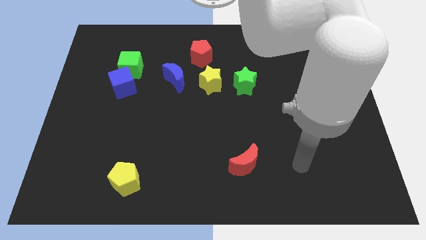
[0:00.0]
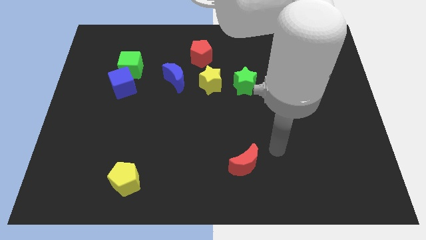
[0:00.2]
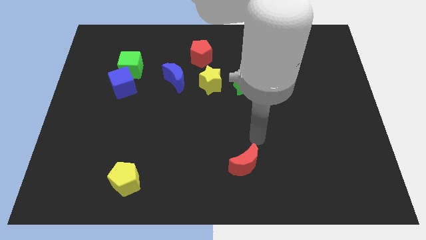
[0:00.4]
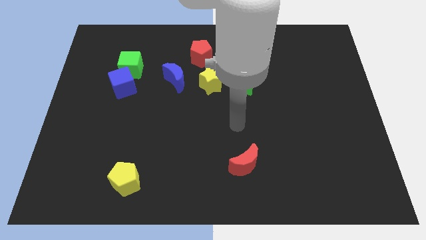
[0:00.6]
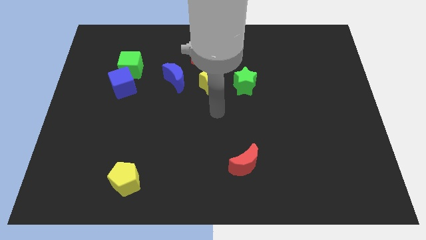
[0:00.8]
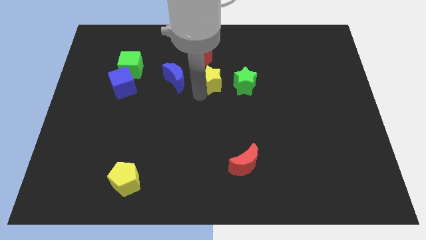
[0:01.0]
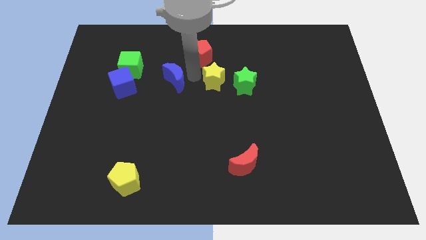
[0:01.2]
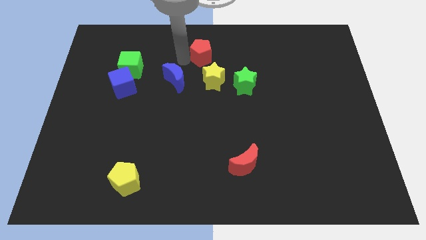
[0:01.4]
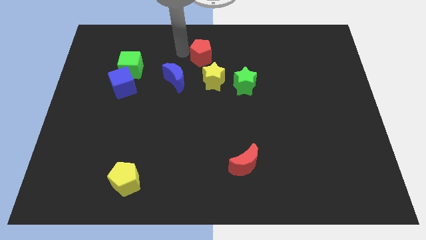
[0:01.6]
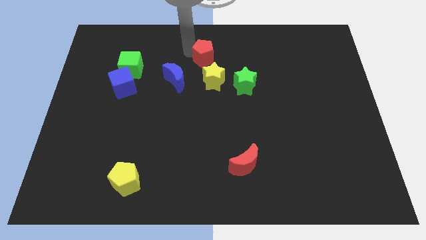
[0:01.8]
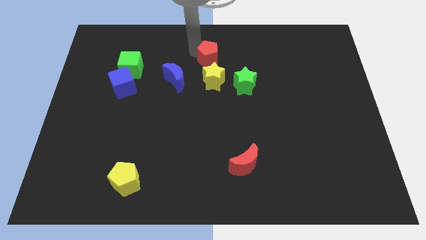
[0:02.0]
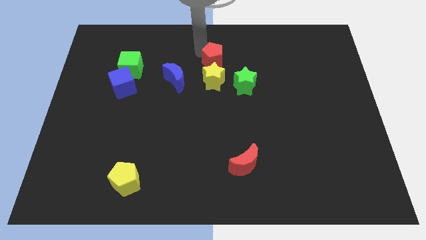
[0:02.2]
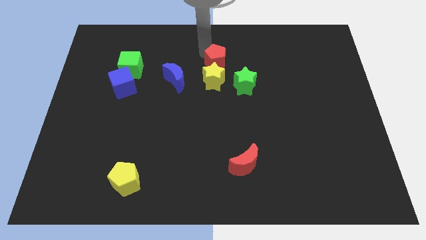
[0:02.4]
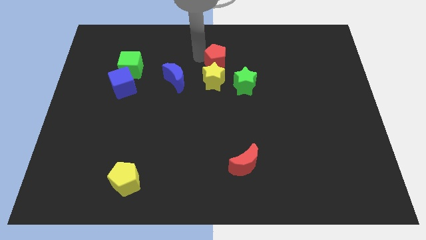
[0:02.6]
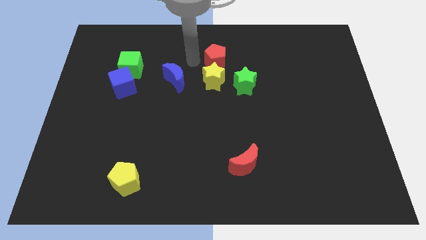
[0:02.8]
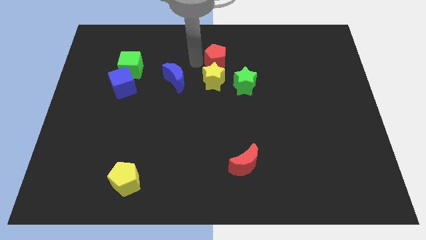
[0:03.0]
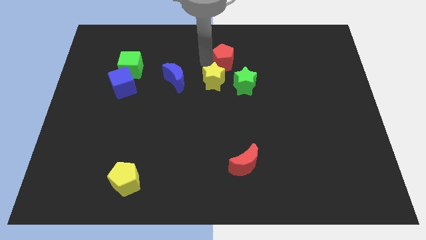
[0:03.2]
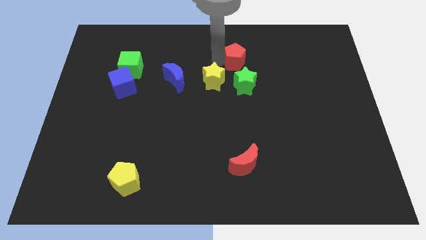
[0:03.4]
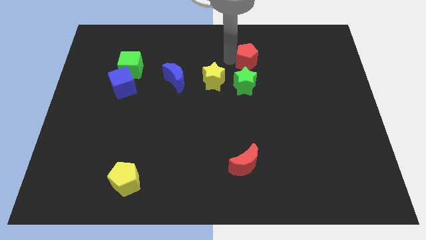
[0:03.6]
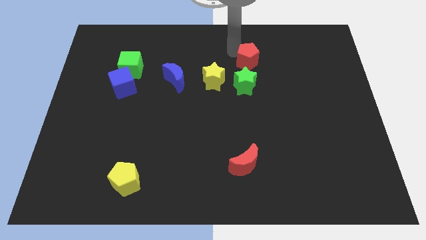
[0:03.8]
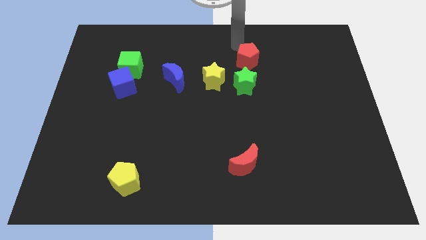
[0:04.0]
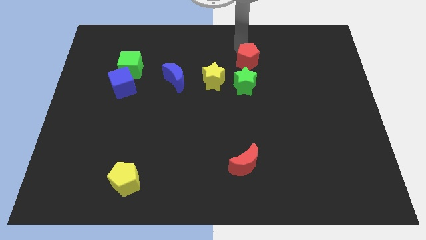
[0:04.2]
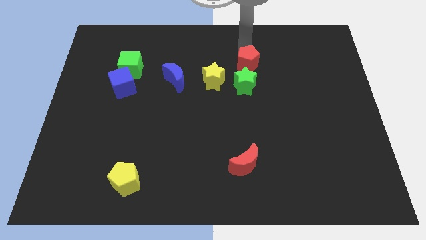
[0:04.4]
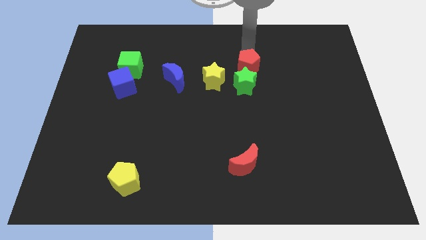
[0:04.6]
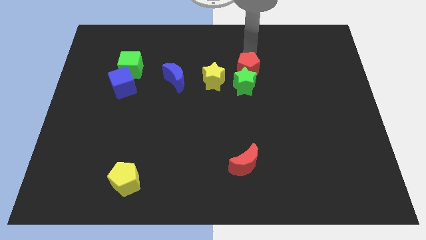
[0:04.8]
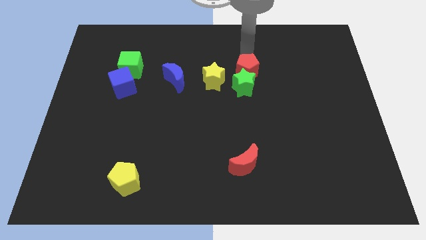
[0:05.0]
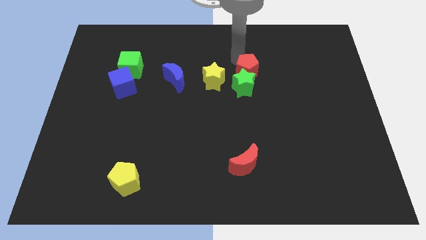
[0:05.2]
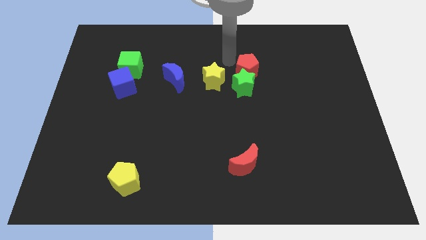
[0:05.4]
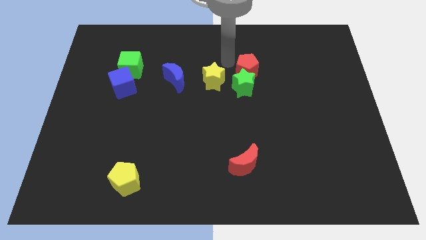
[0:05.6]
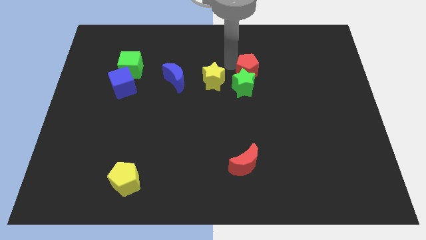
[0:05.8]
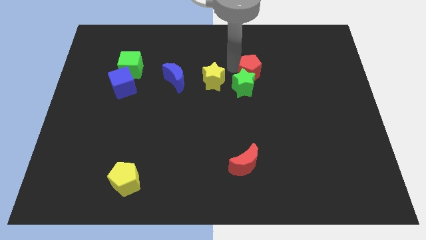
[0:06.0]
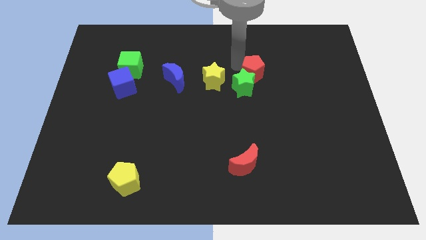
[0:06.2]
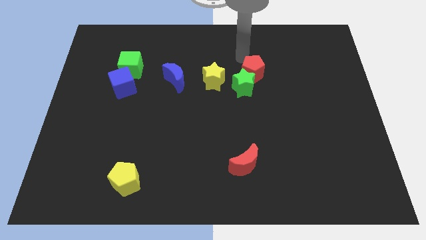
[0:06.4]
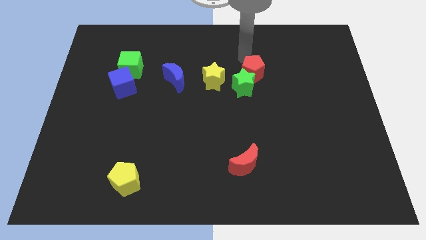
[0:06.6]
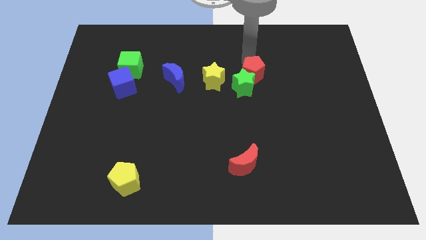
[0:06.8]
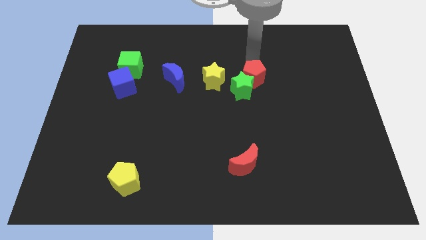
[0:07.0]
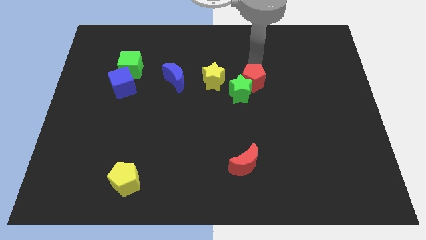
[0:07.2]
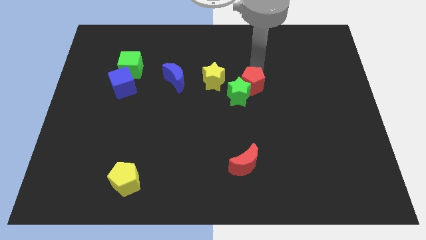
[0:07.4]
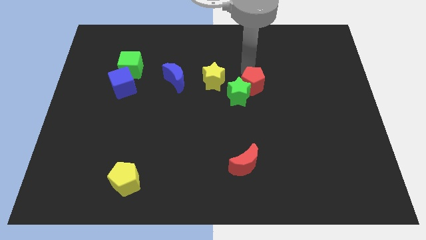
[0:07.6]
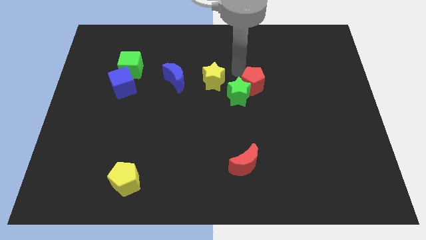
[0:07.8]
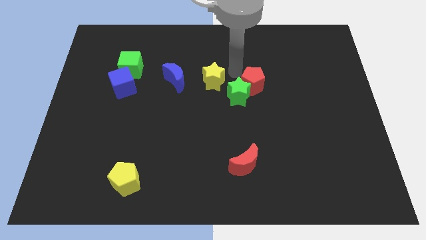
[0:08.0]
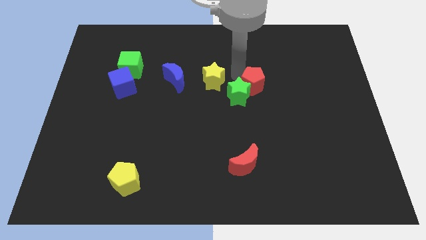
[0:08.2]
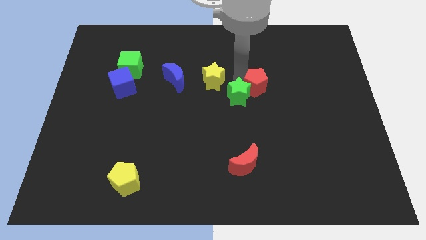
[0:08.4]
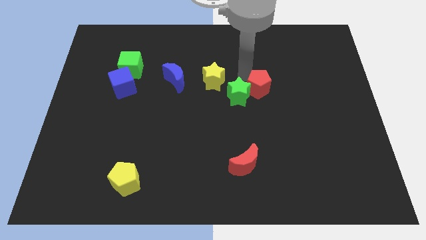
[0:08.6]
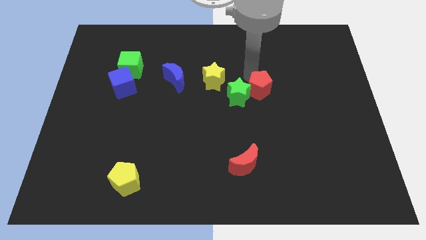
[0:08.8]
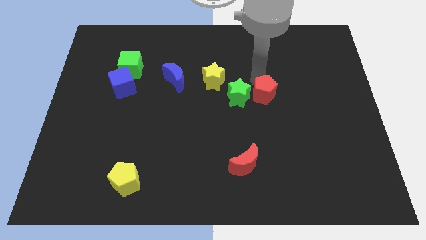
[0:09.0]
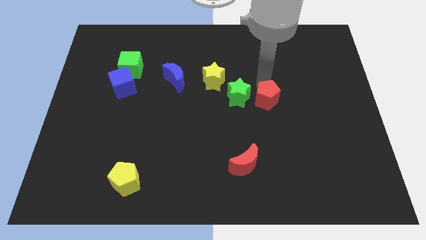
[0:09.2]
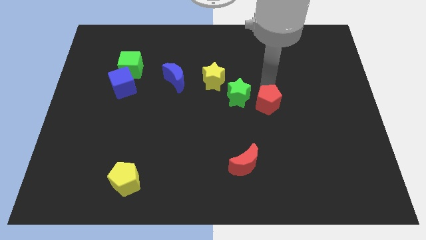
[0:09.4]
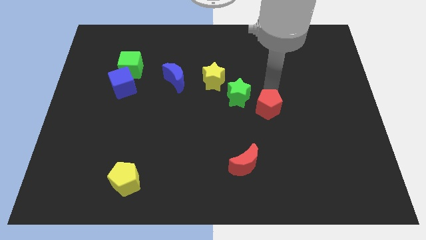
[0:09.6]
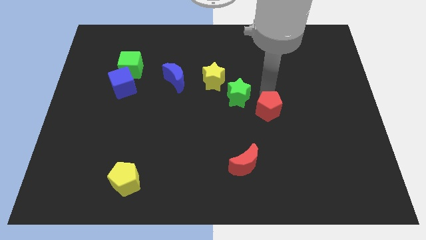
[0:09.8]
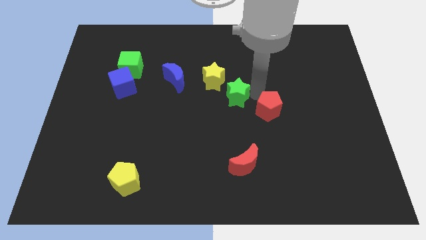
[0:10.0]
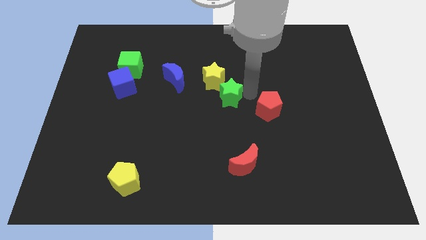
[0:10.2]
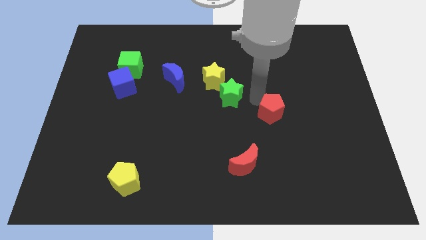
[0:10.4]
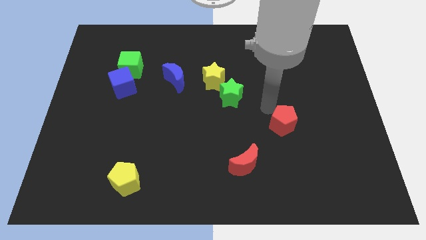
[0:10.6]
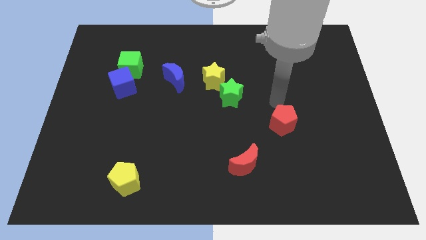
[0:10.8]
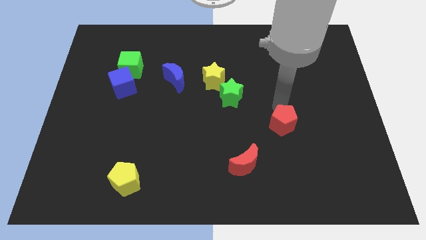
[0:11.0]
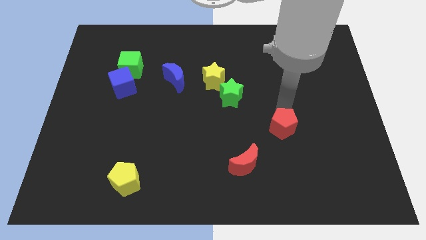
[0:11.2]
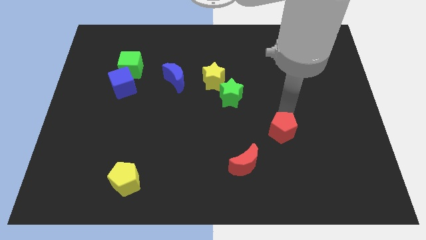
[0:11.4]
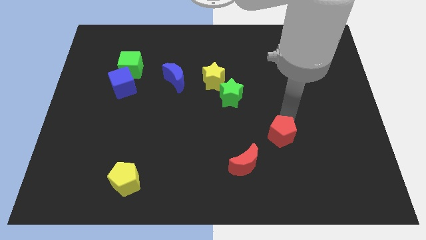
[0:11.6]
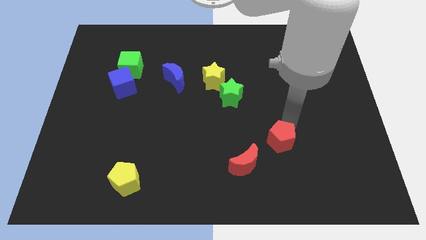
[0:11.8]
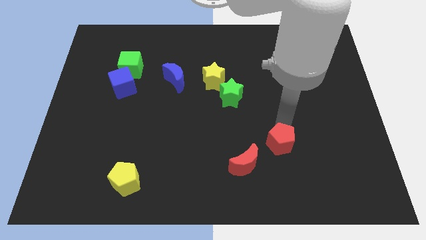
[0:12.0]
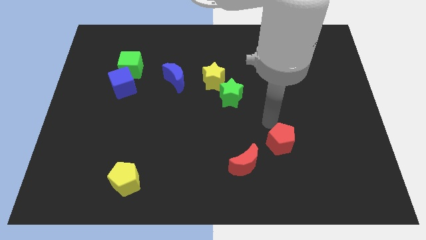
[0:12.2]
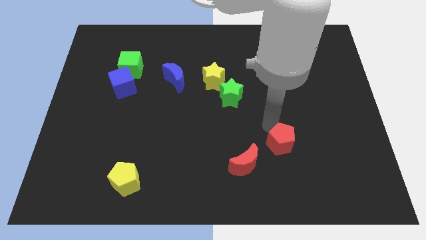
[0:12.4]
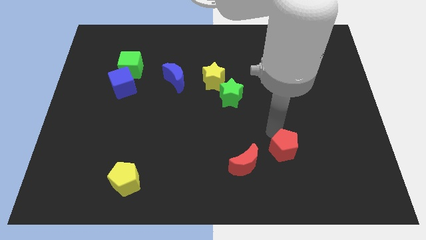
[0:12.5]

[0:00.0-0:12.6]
slide the red pentagon to the right side of the red moon

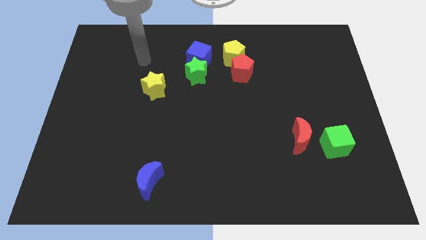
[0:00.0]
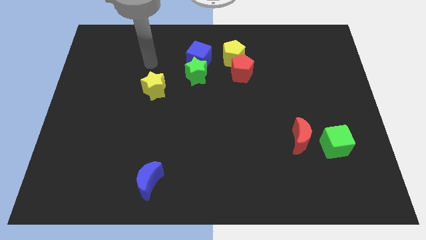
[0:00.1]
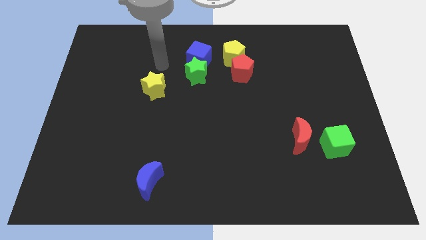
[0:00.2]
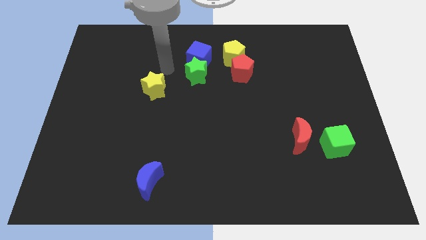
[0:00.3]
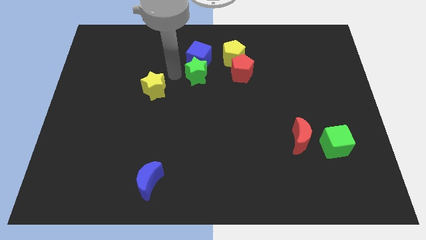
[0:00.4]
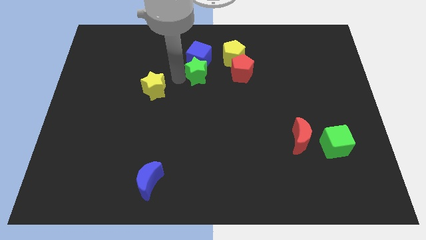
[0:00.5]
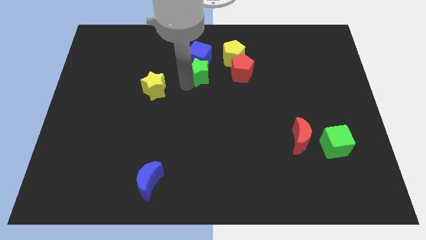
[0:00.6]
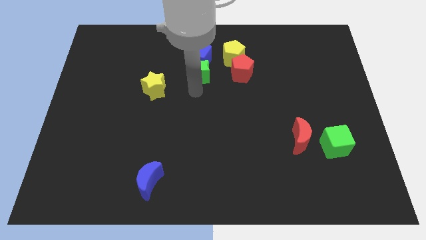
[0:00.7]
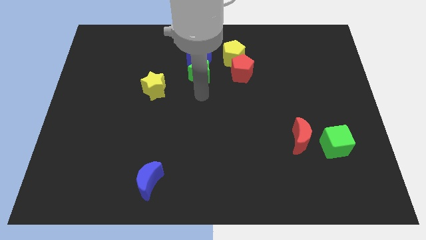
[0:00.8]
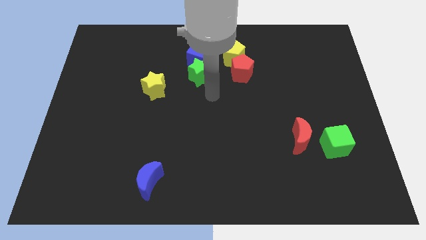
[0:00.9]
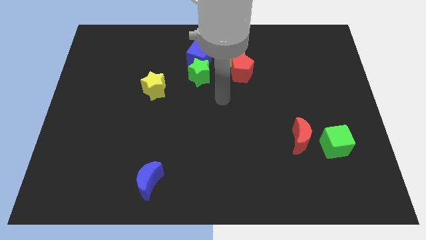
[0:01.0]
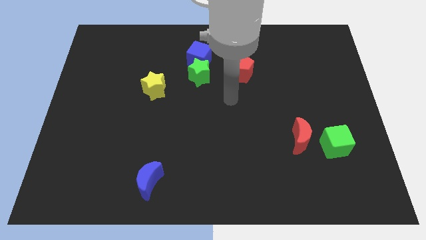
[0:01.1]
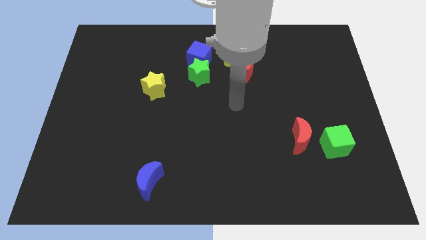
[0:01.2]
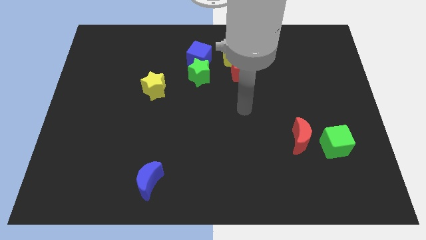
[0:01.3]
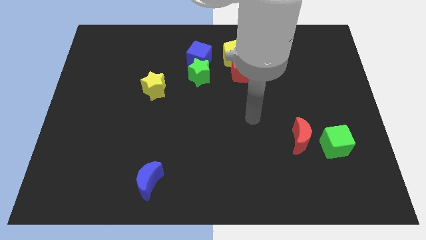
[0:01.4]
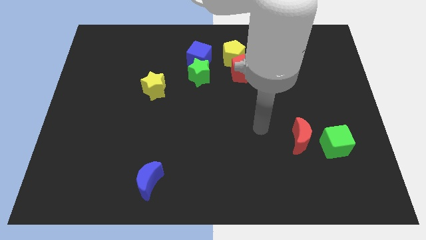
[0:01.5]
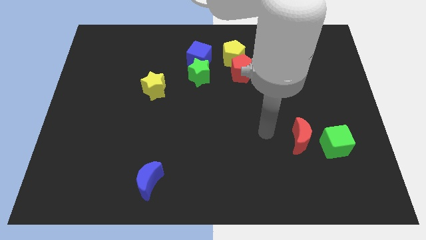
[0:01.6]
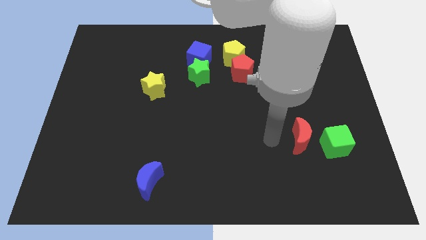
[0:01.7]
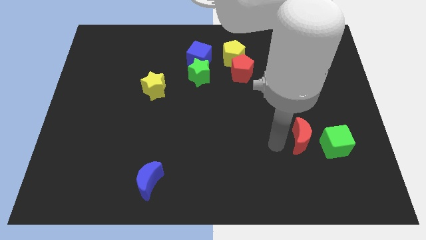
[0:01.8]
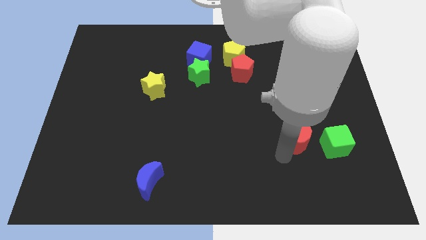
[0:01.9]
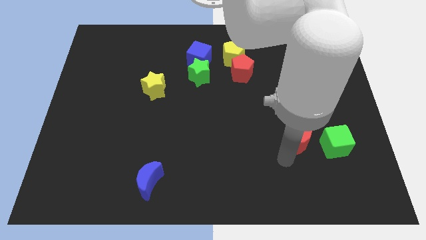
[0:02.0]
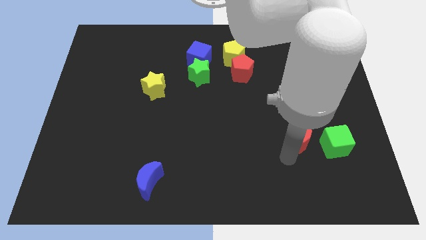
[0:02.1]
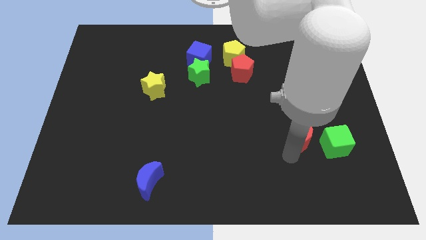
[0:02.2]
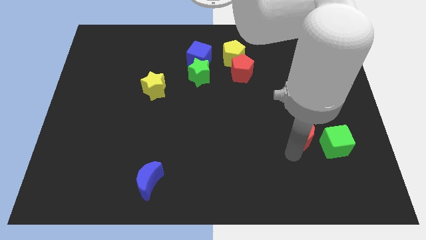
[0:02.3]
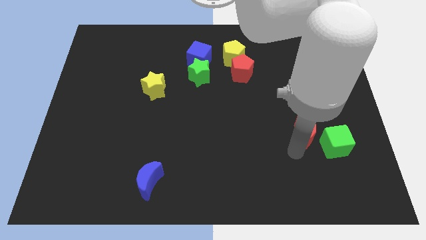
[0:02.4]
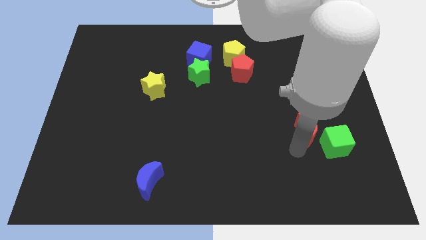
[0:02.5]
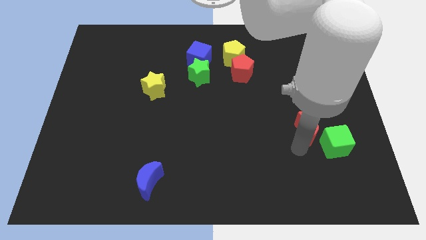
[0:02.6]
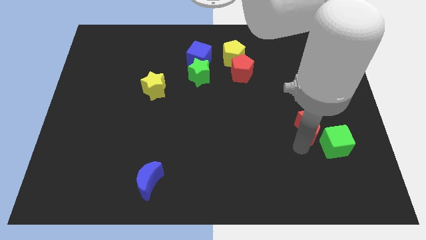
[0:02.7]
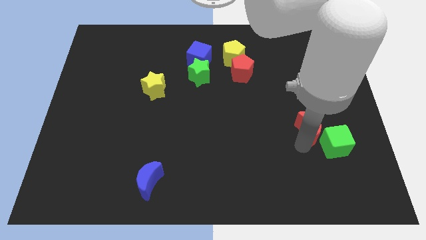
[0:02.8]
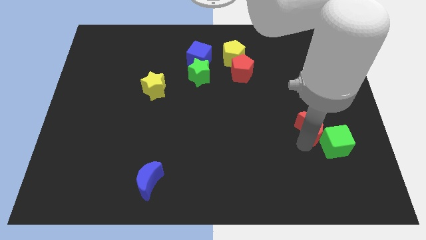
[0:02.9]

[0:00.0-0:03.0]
slide the red moon to the top of the green cube
